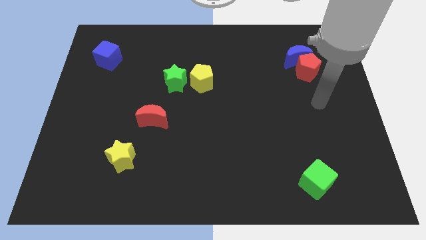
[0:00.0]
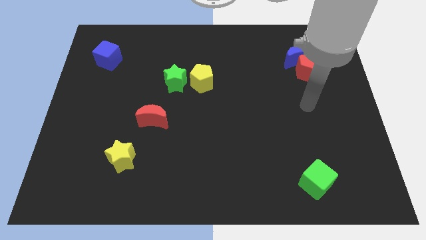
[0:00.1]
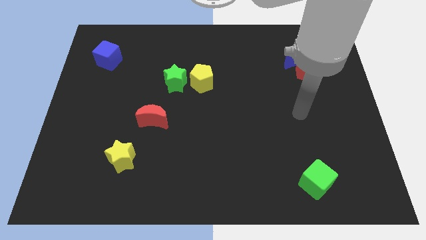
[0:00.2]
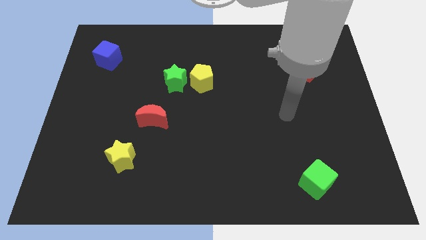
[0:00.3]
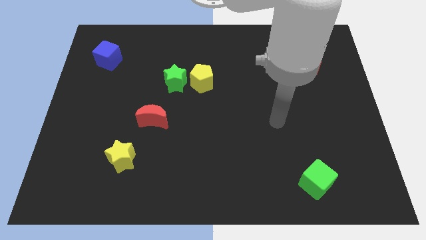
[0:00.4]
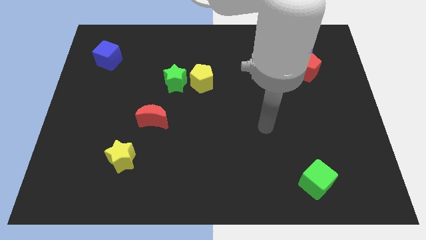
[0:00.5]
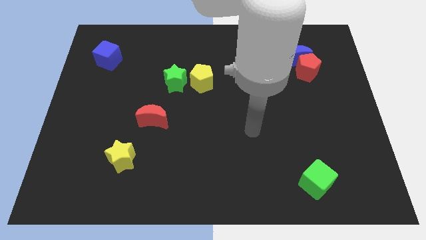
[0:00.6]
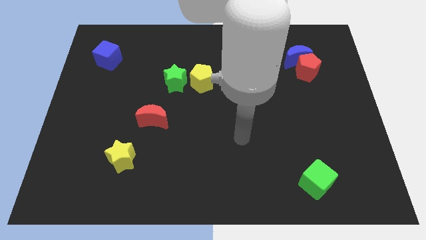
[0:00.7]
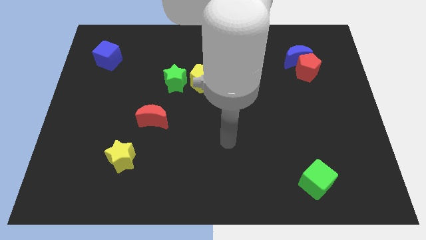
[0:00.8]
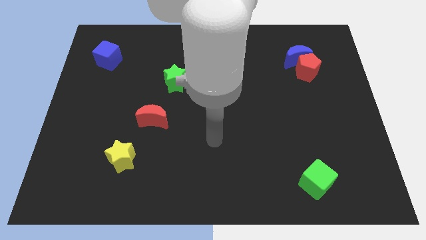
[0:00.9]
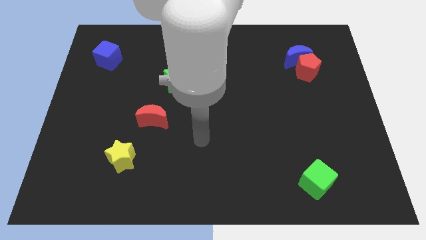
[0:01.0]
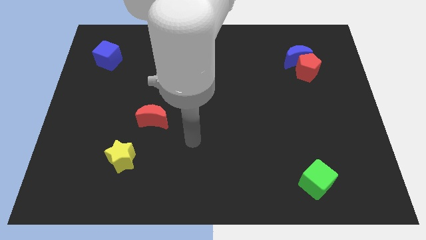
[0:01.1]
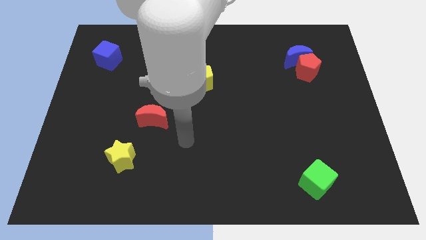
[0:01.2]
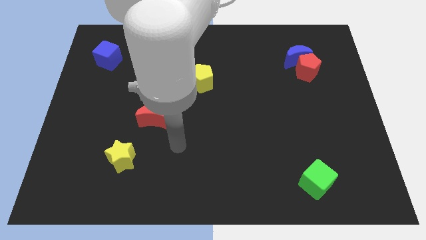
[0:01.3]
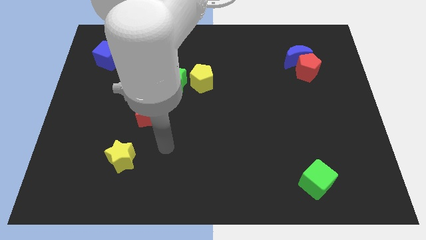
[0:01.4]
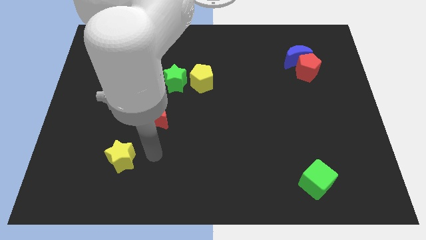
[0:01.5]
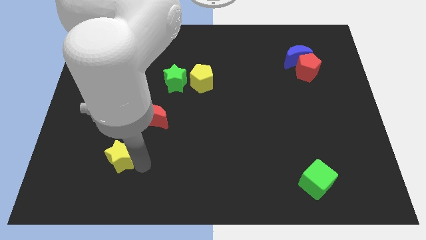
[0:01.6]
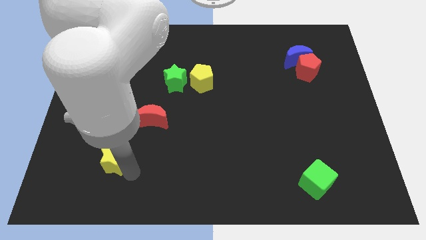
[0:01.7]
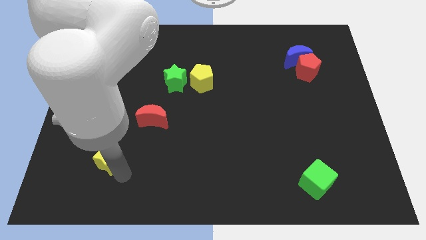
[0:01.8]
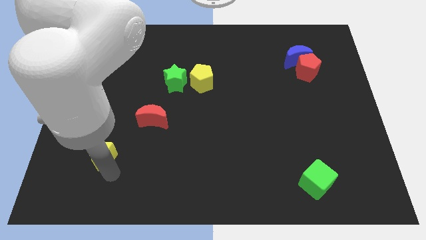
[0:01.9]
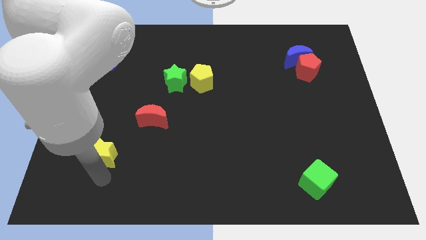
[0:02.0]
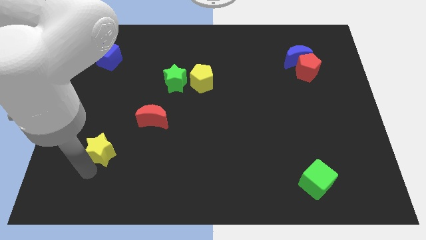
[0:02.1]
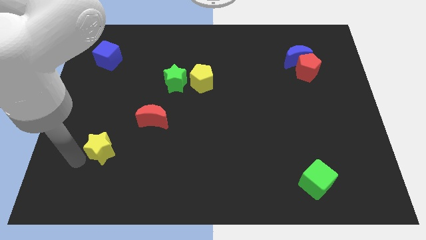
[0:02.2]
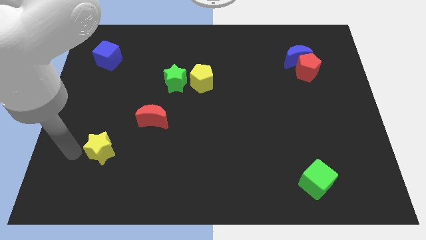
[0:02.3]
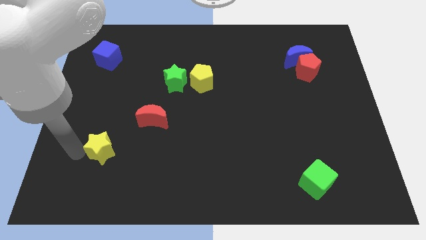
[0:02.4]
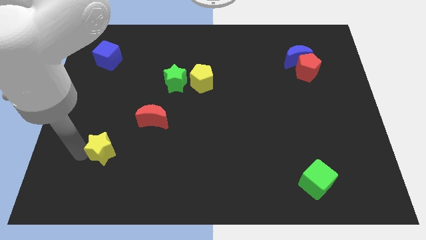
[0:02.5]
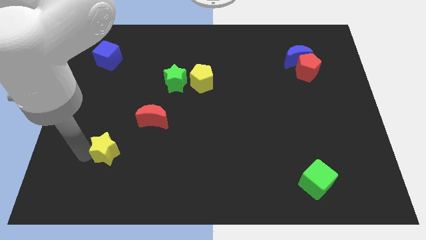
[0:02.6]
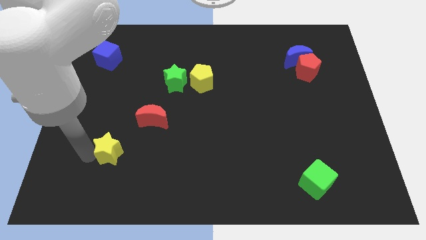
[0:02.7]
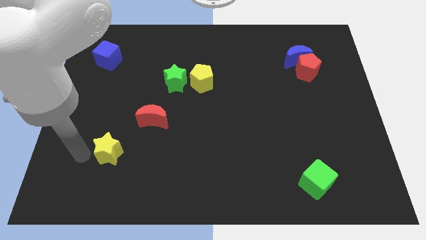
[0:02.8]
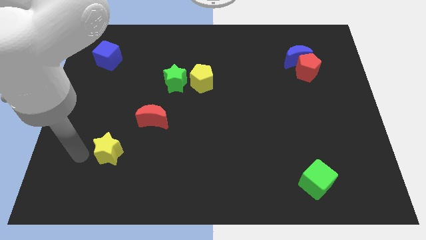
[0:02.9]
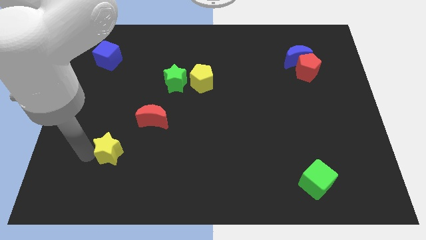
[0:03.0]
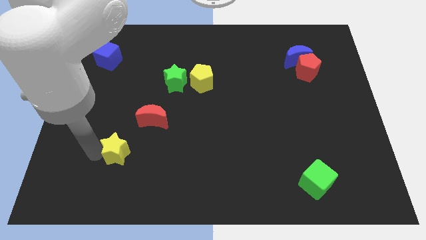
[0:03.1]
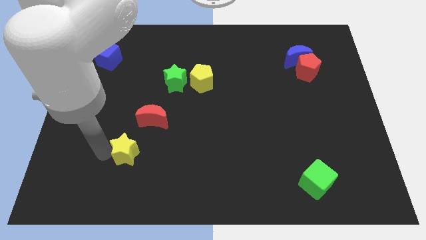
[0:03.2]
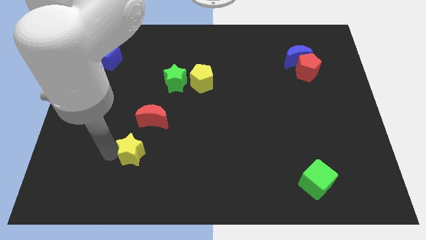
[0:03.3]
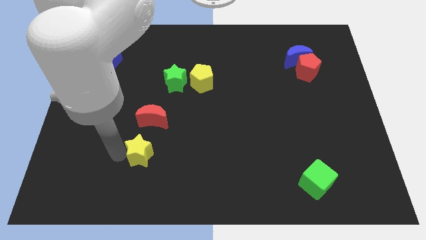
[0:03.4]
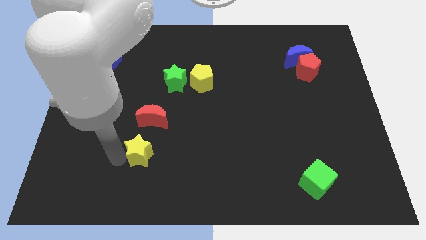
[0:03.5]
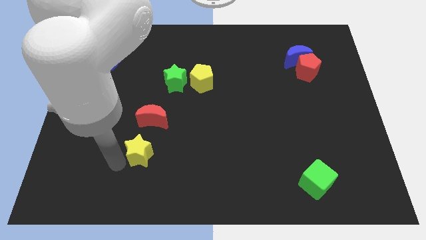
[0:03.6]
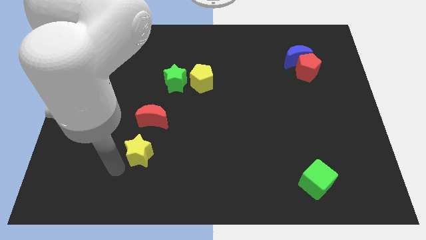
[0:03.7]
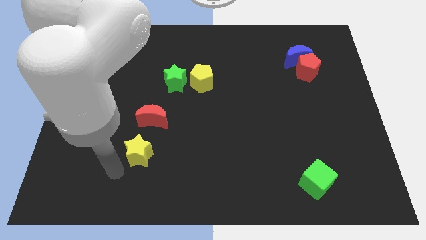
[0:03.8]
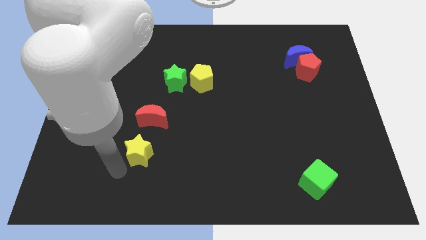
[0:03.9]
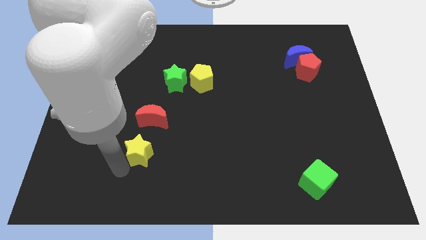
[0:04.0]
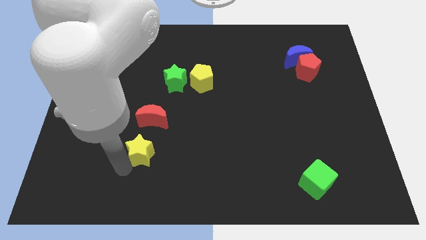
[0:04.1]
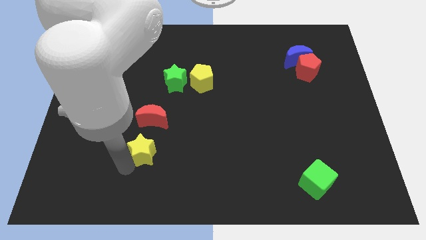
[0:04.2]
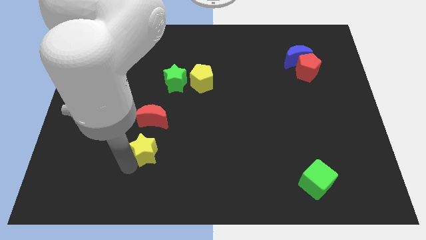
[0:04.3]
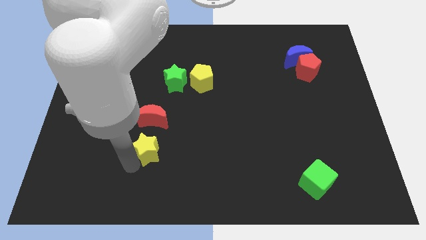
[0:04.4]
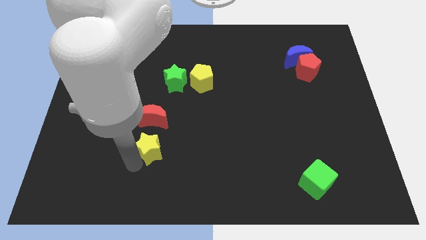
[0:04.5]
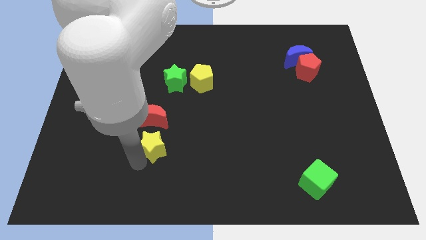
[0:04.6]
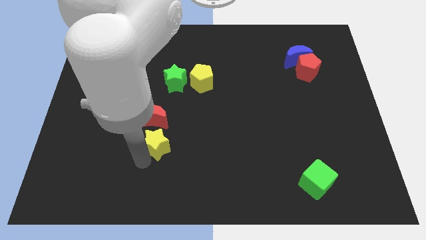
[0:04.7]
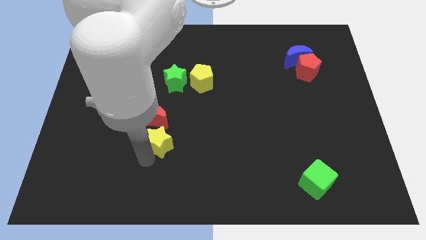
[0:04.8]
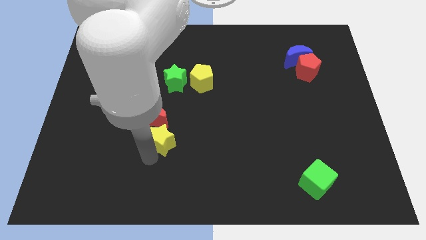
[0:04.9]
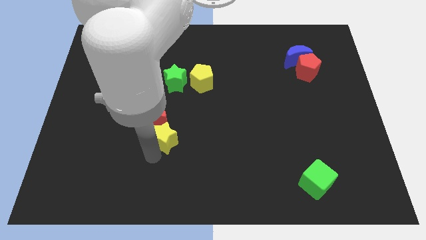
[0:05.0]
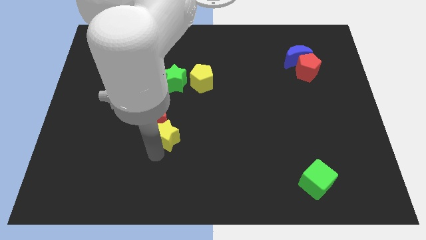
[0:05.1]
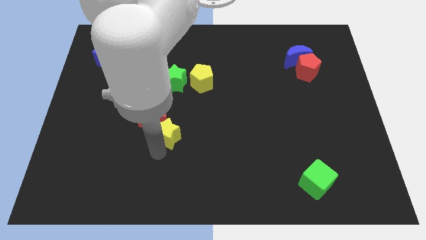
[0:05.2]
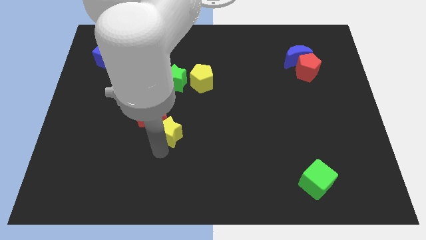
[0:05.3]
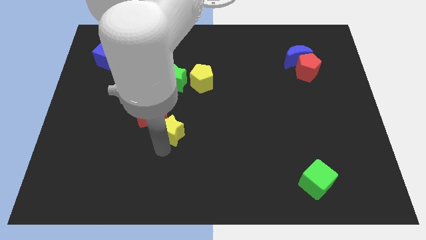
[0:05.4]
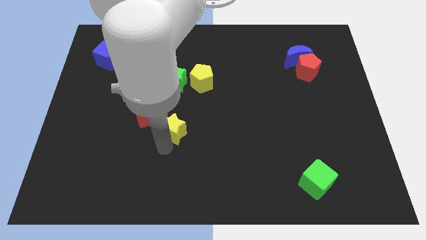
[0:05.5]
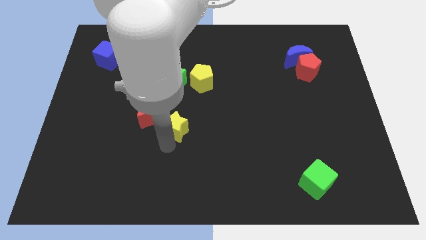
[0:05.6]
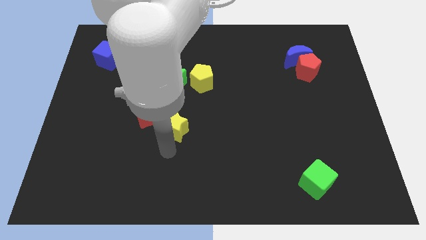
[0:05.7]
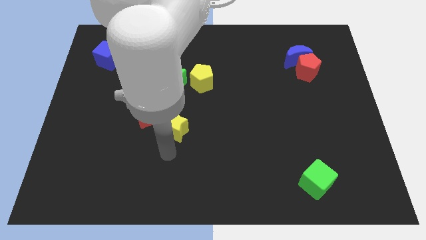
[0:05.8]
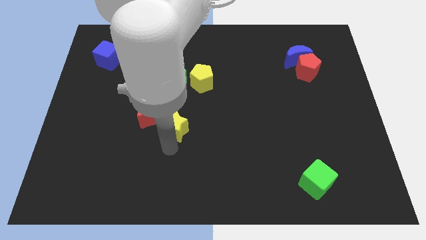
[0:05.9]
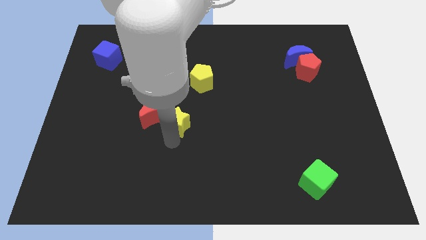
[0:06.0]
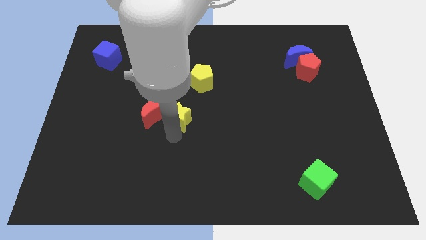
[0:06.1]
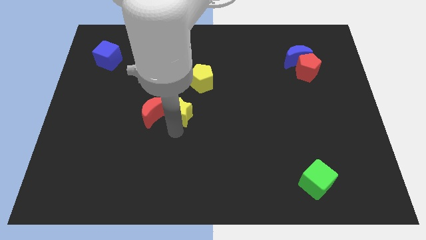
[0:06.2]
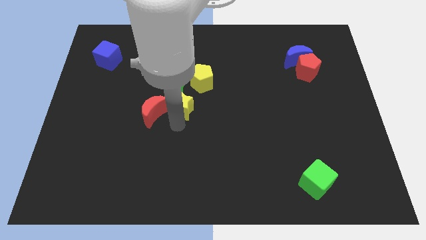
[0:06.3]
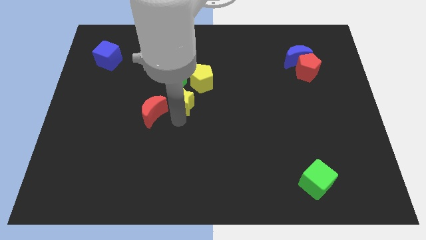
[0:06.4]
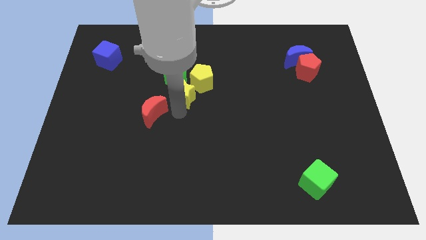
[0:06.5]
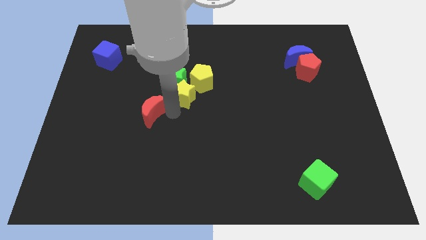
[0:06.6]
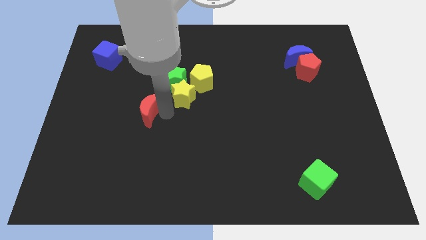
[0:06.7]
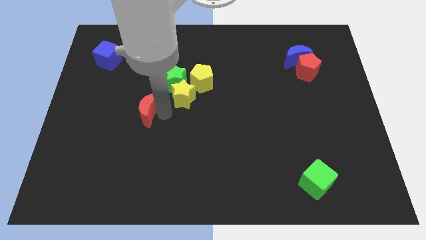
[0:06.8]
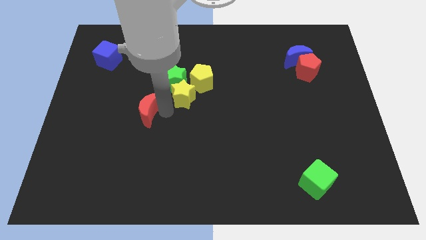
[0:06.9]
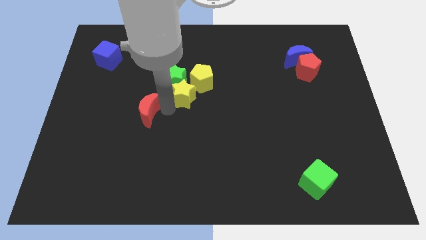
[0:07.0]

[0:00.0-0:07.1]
push the yellow star next to the yellow pentagon
